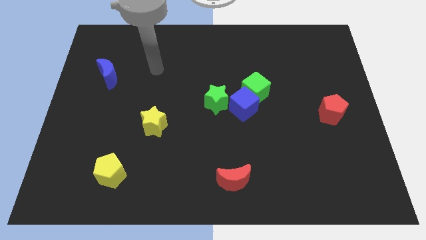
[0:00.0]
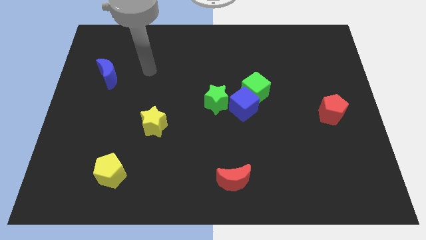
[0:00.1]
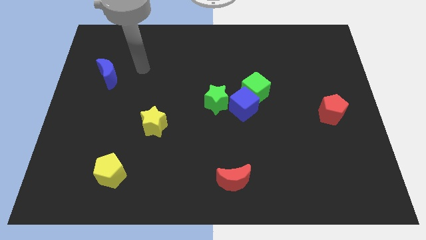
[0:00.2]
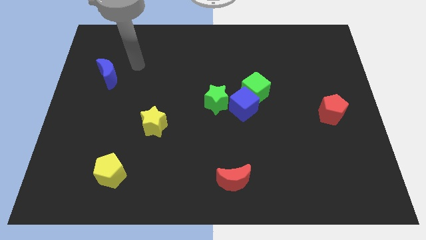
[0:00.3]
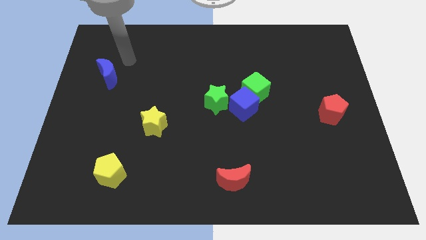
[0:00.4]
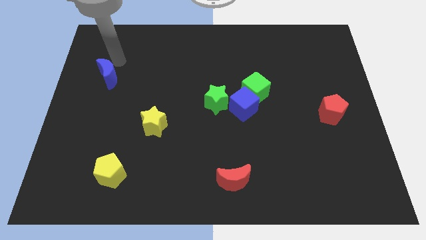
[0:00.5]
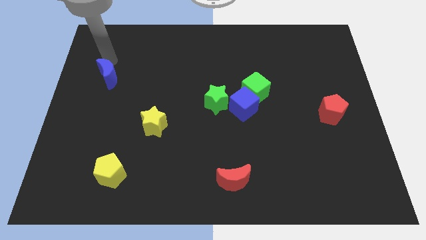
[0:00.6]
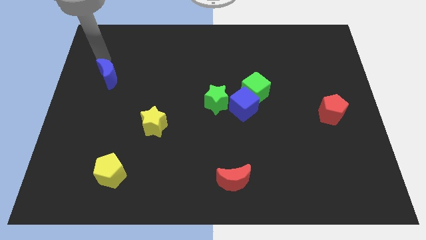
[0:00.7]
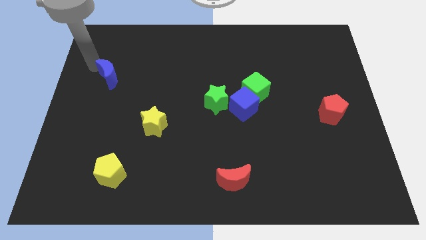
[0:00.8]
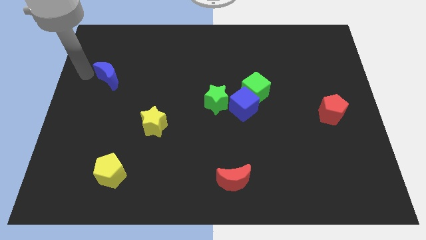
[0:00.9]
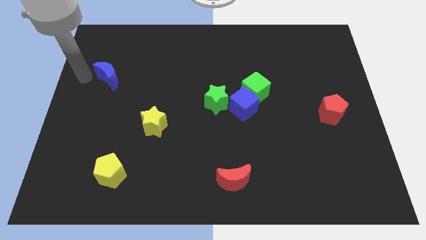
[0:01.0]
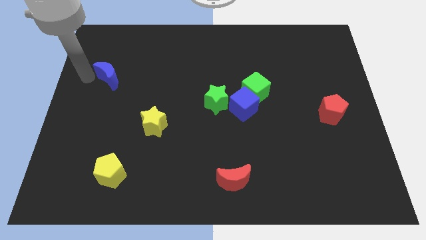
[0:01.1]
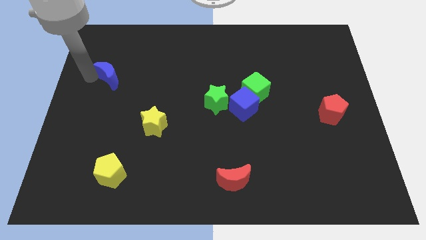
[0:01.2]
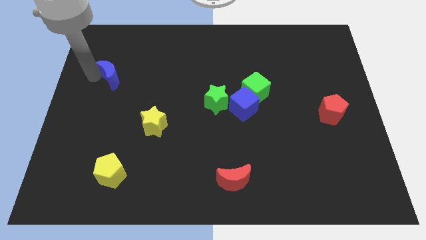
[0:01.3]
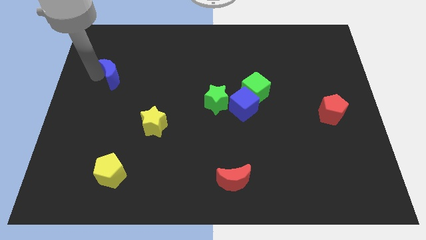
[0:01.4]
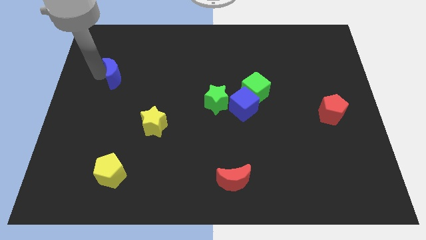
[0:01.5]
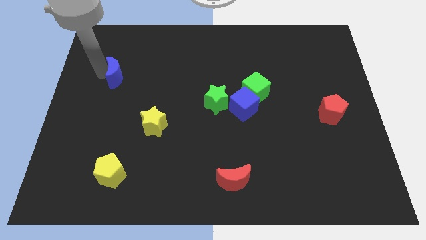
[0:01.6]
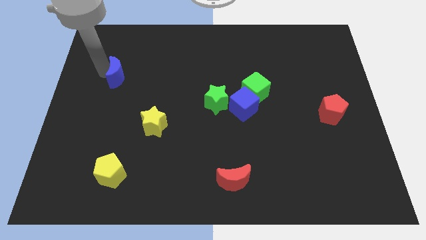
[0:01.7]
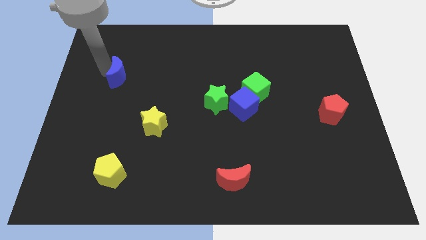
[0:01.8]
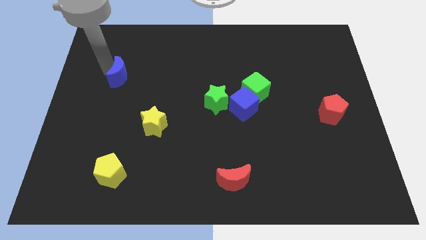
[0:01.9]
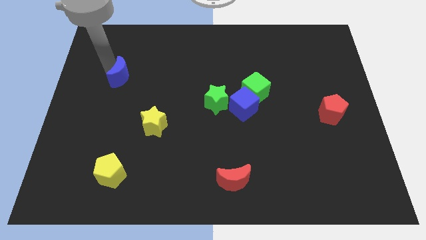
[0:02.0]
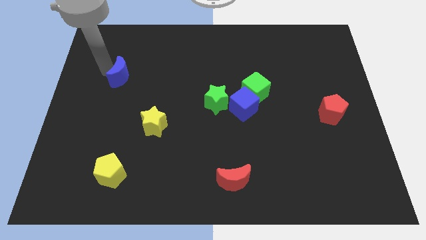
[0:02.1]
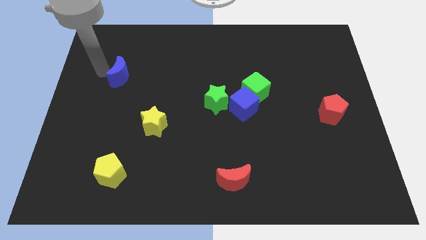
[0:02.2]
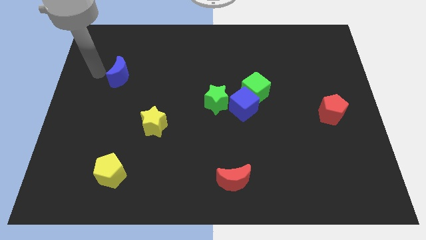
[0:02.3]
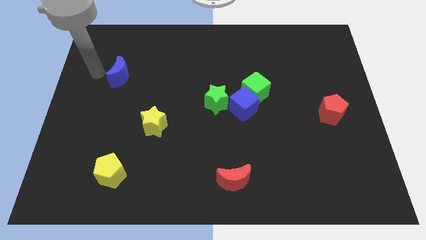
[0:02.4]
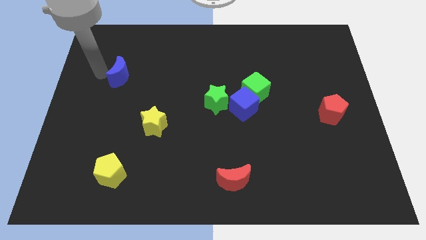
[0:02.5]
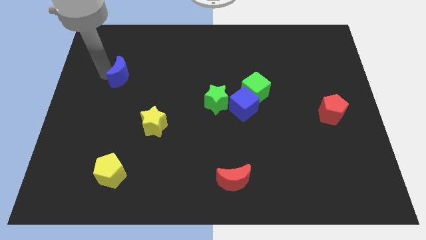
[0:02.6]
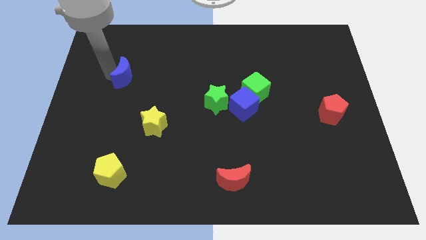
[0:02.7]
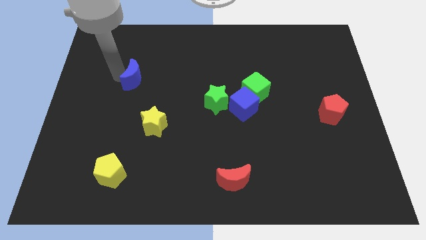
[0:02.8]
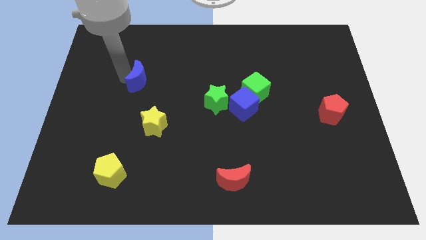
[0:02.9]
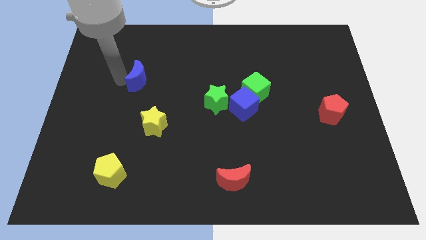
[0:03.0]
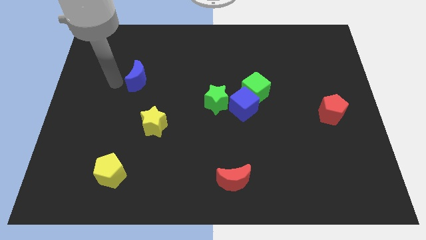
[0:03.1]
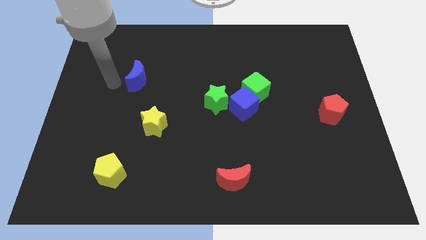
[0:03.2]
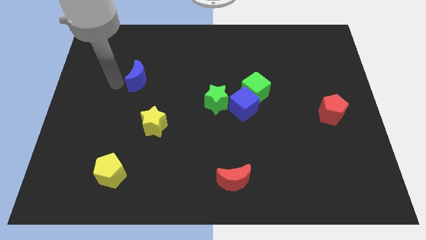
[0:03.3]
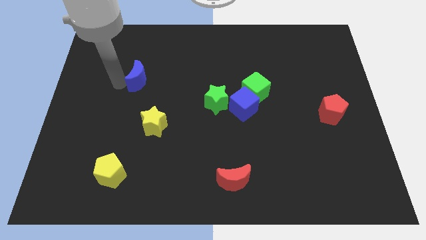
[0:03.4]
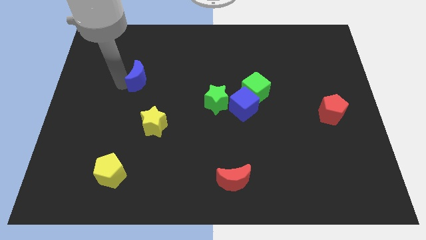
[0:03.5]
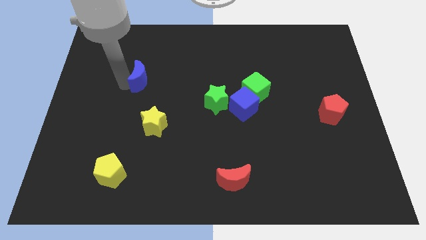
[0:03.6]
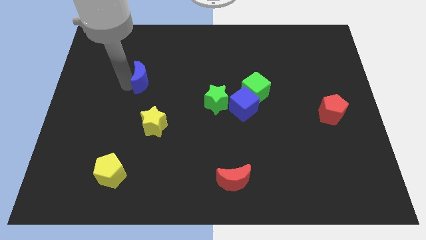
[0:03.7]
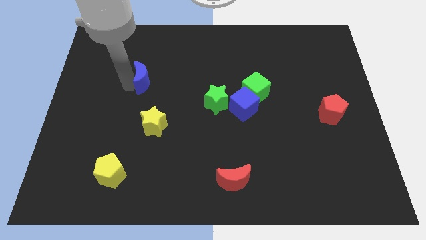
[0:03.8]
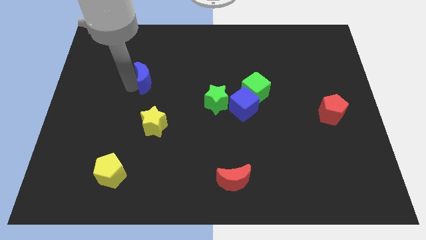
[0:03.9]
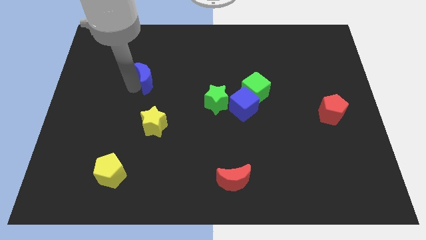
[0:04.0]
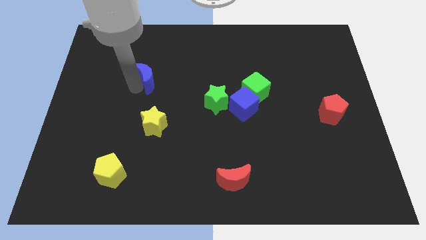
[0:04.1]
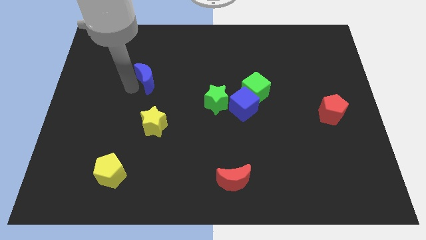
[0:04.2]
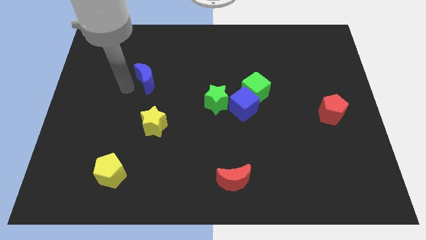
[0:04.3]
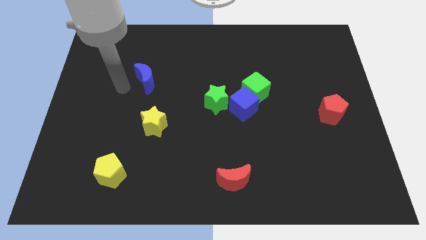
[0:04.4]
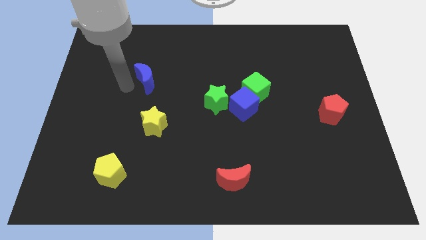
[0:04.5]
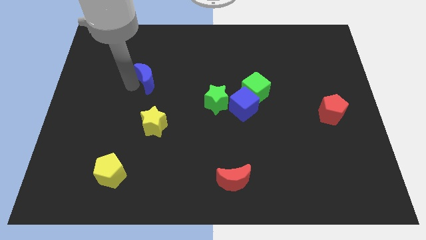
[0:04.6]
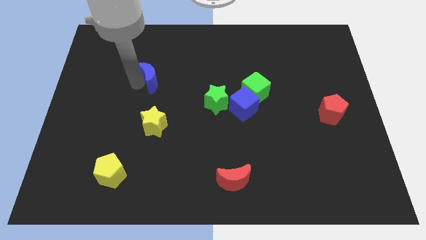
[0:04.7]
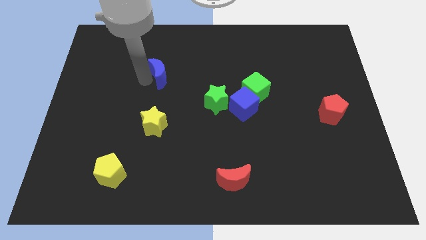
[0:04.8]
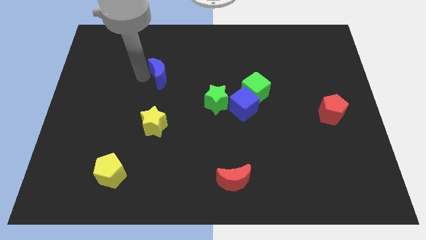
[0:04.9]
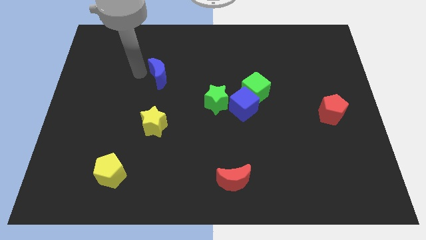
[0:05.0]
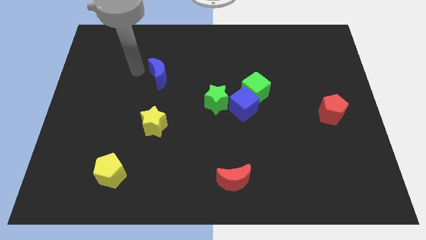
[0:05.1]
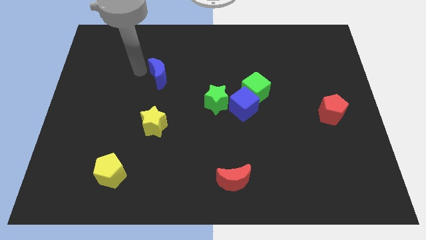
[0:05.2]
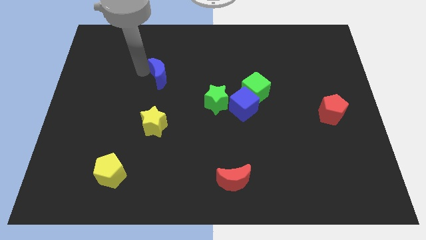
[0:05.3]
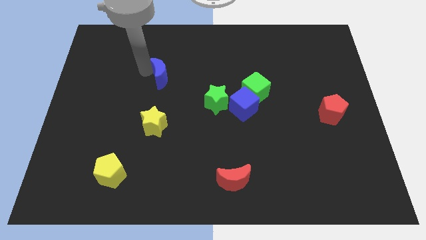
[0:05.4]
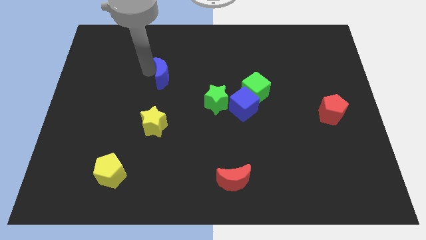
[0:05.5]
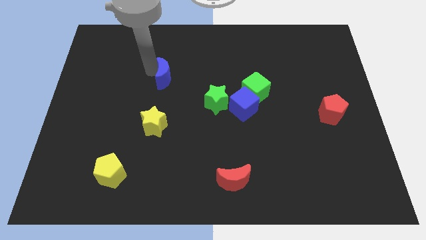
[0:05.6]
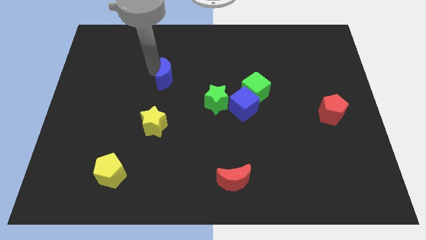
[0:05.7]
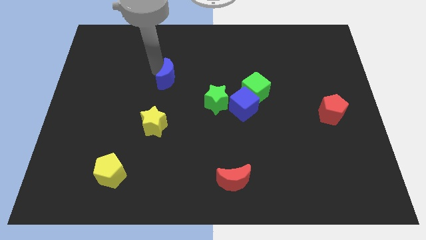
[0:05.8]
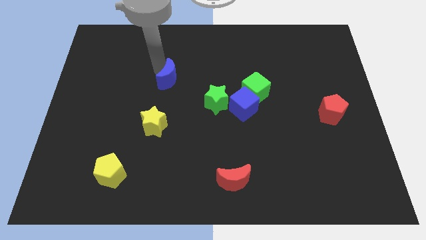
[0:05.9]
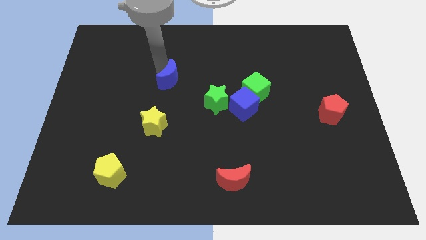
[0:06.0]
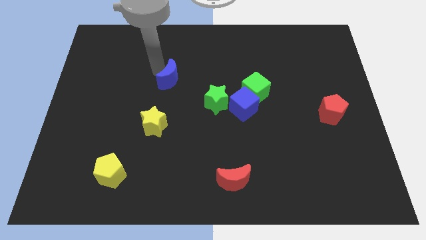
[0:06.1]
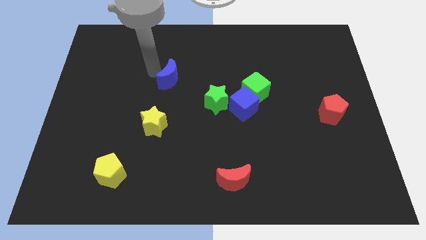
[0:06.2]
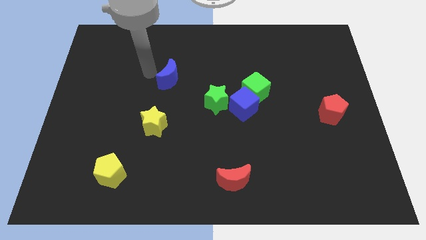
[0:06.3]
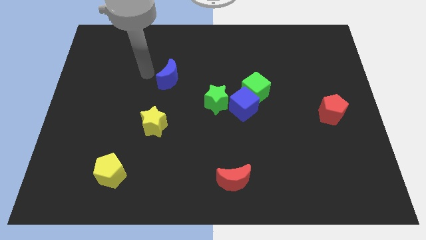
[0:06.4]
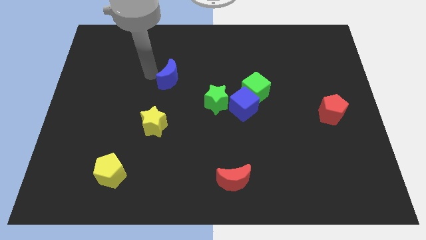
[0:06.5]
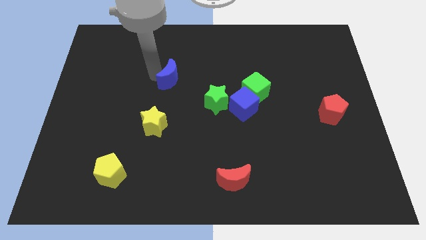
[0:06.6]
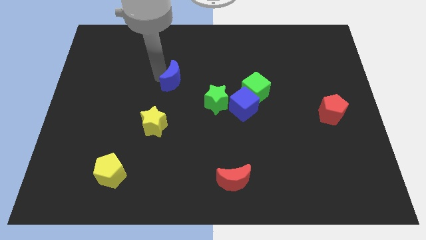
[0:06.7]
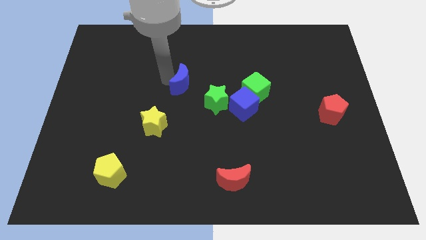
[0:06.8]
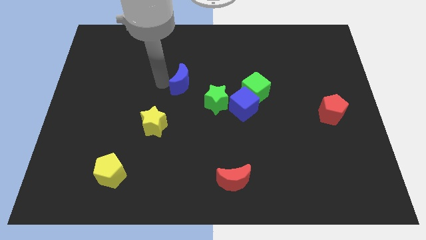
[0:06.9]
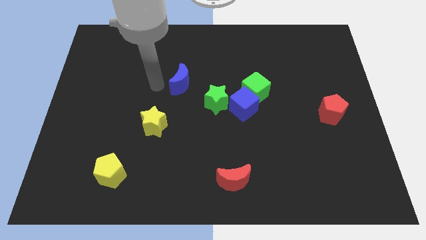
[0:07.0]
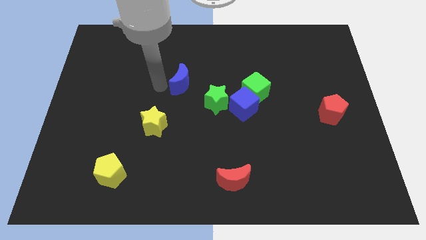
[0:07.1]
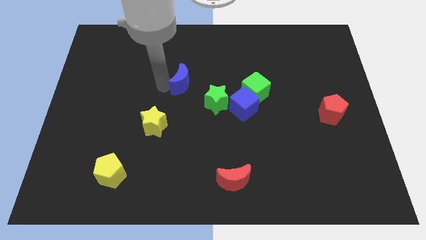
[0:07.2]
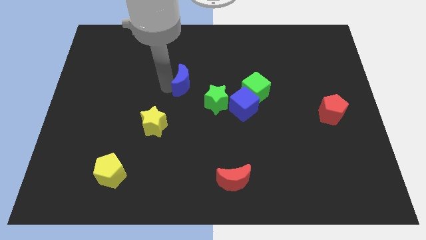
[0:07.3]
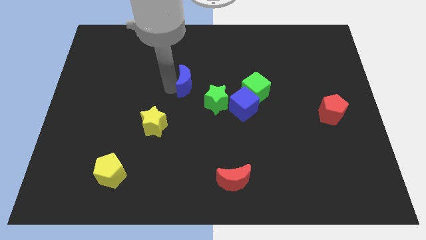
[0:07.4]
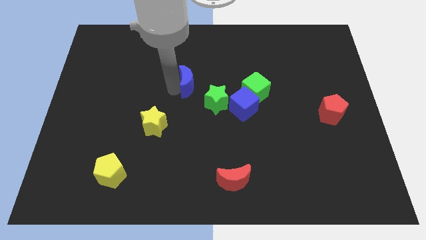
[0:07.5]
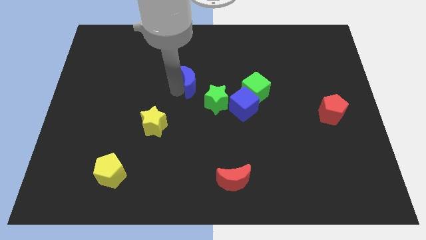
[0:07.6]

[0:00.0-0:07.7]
move the blue moon right

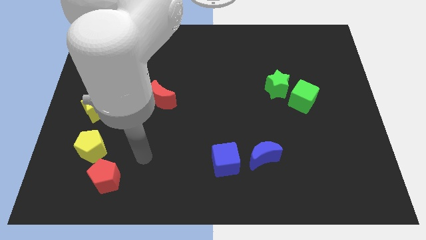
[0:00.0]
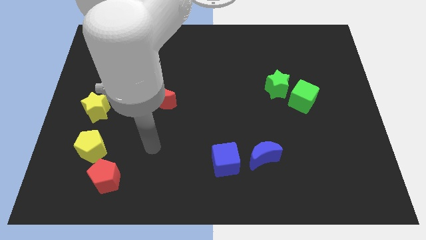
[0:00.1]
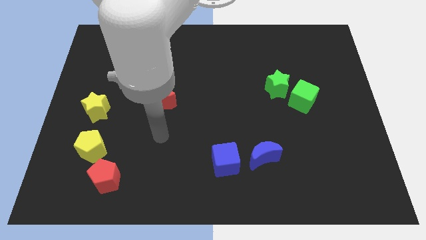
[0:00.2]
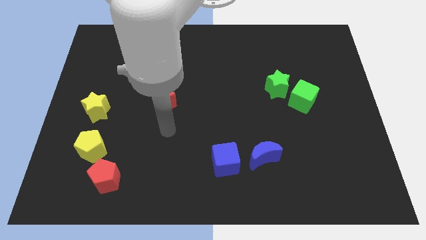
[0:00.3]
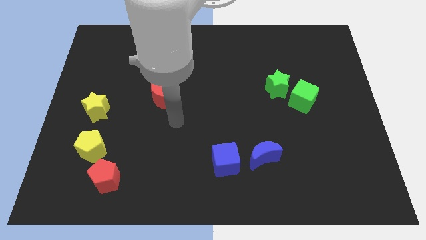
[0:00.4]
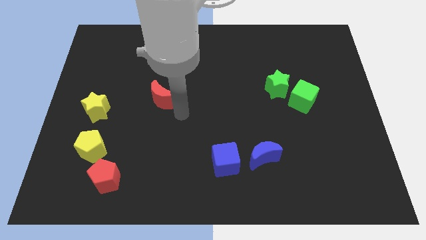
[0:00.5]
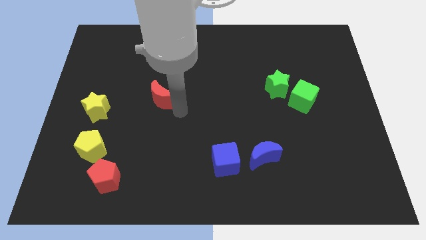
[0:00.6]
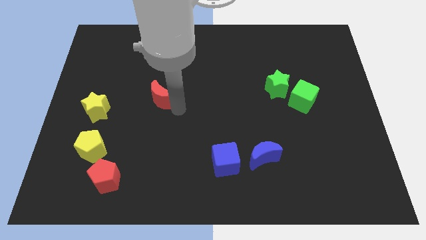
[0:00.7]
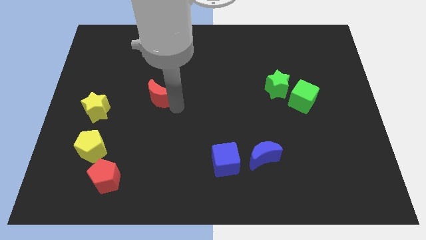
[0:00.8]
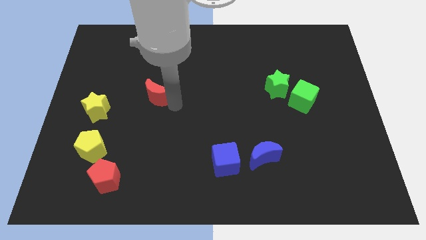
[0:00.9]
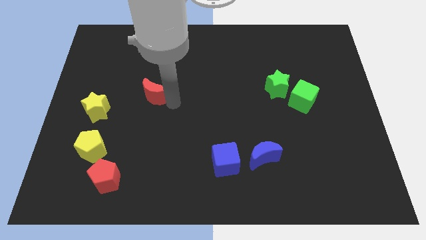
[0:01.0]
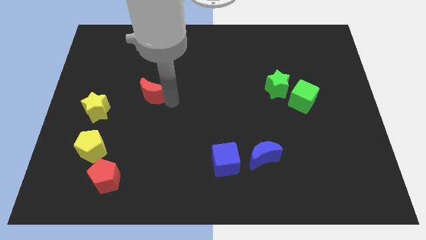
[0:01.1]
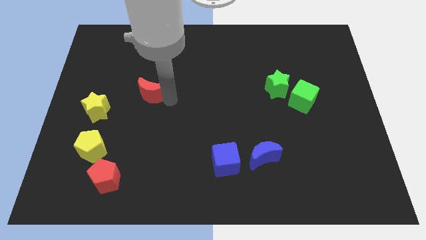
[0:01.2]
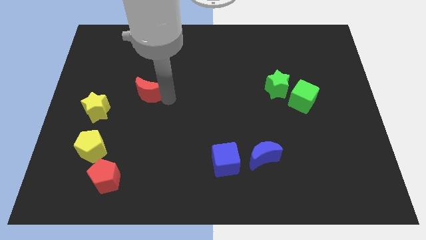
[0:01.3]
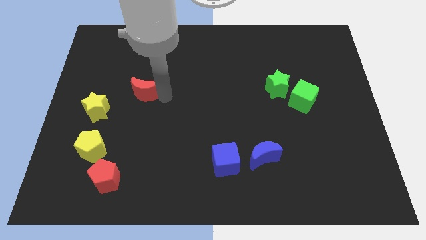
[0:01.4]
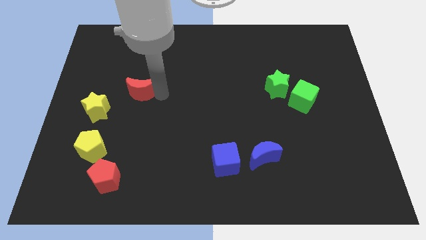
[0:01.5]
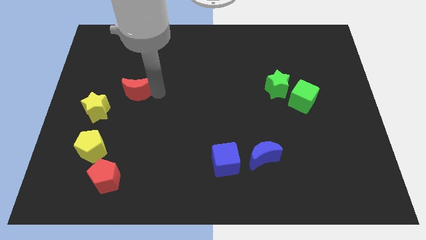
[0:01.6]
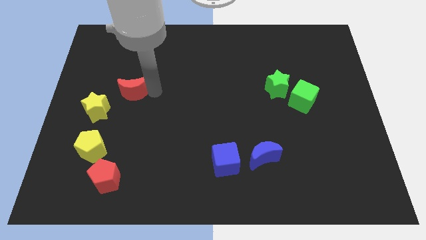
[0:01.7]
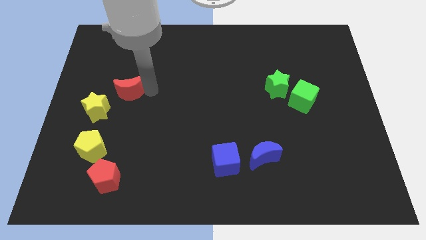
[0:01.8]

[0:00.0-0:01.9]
slightly push the red moon up and then left
